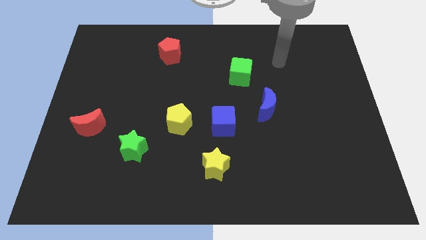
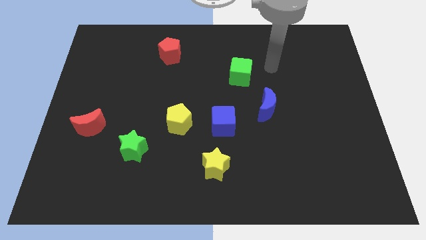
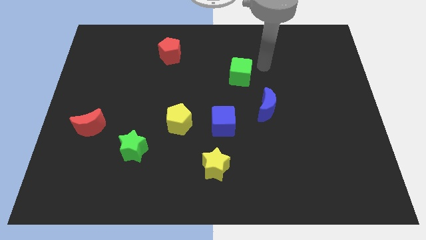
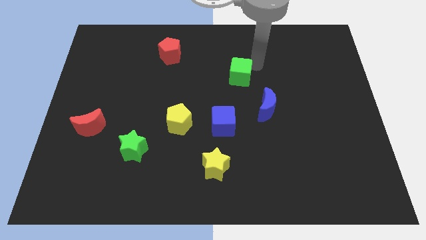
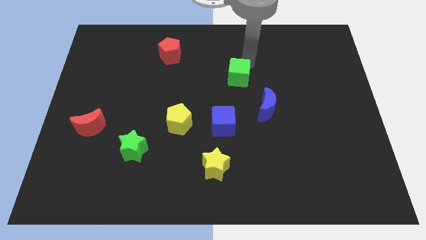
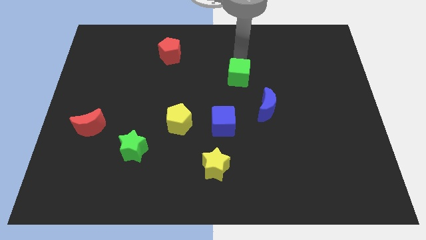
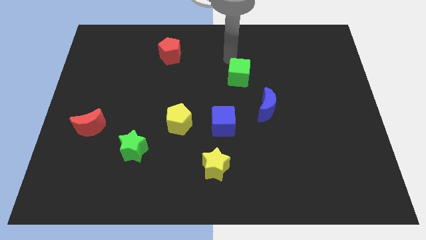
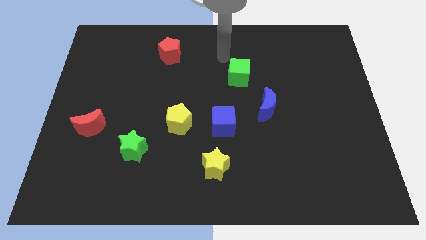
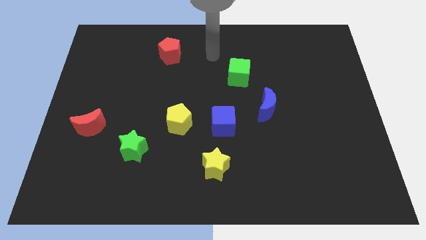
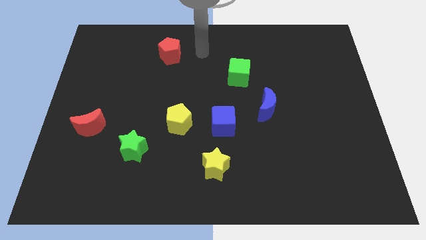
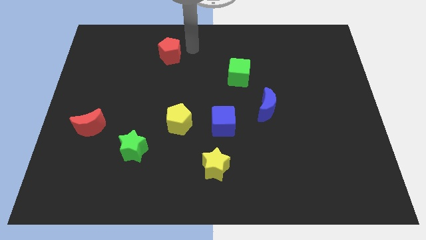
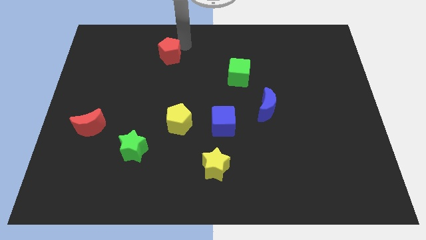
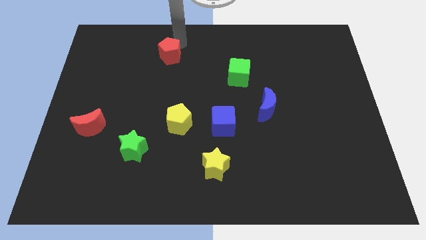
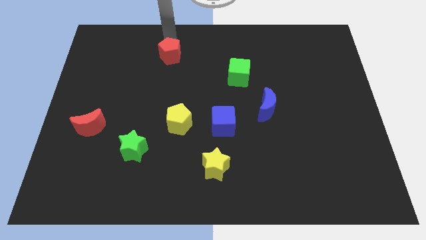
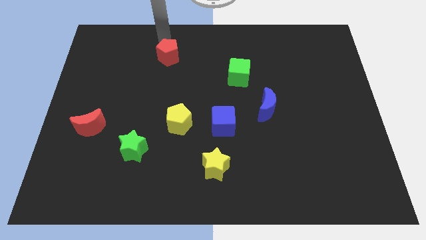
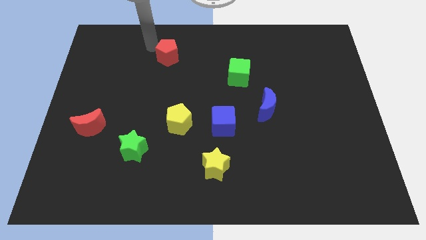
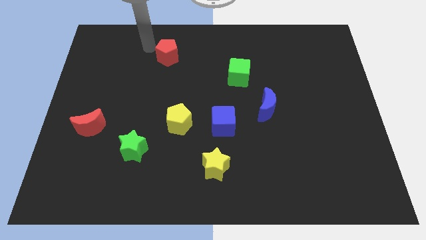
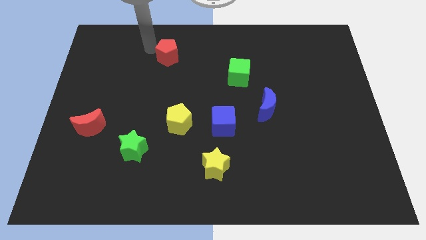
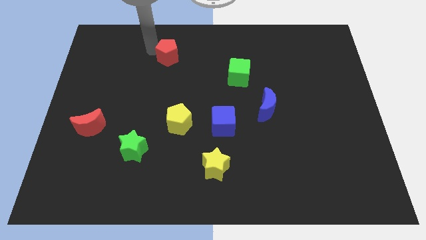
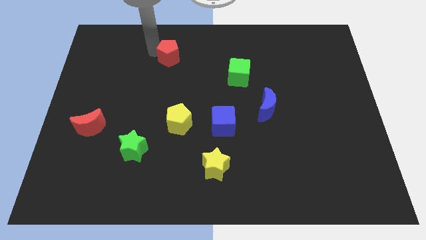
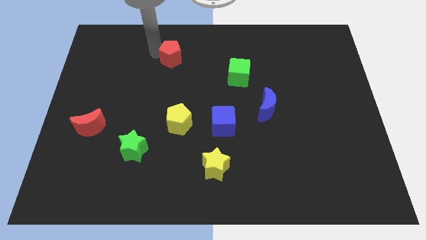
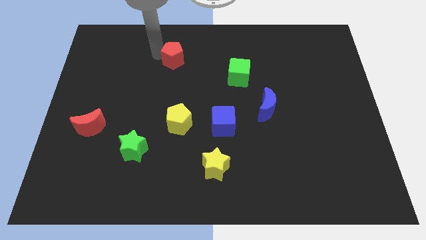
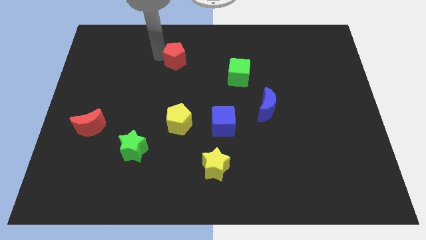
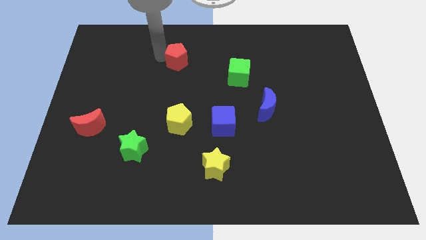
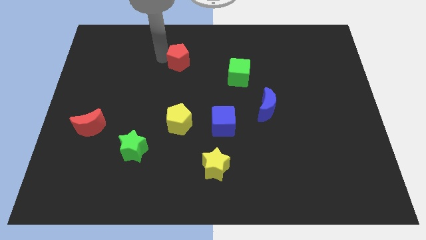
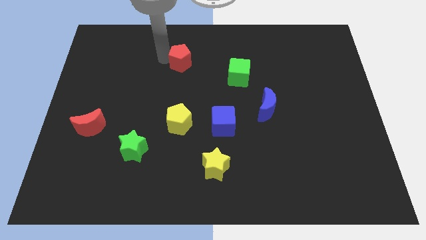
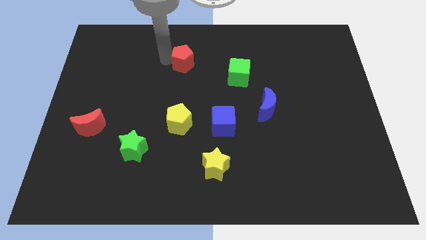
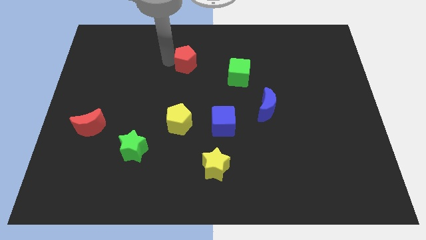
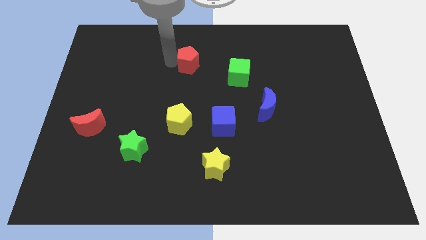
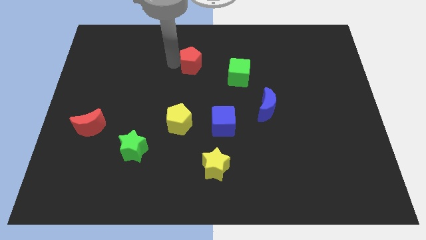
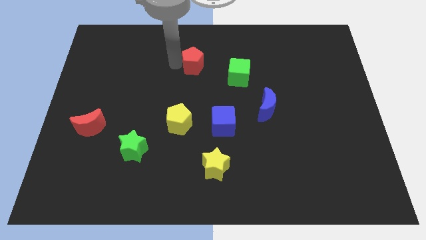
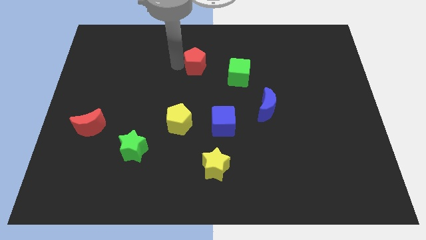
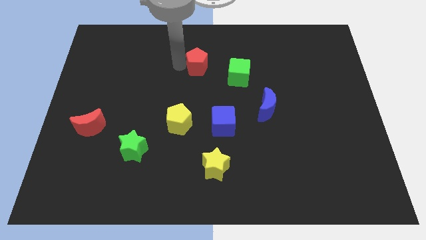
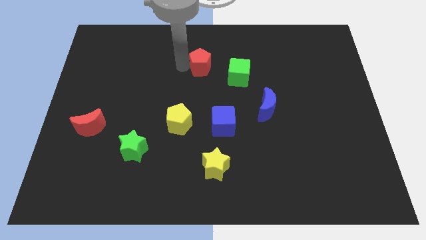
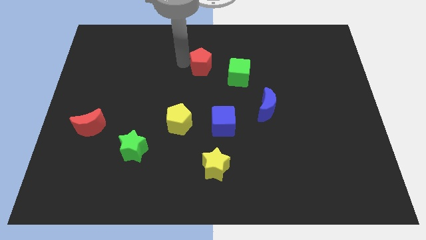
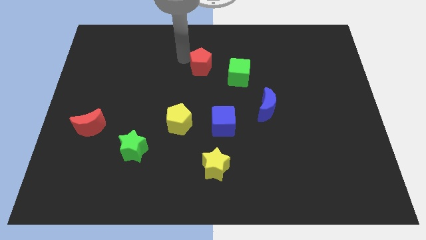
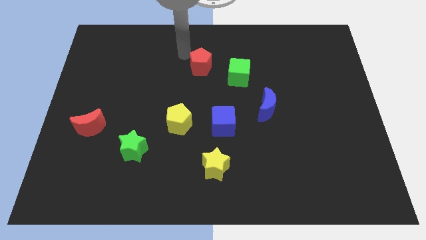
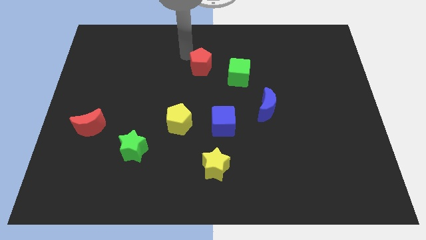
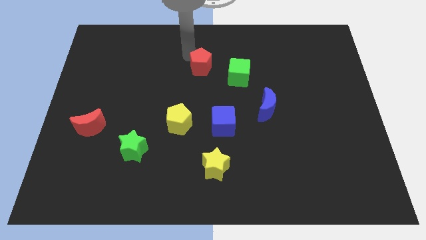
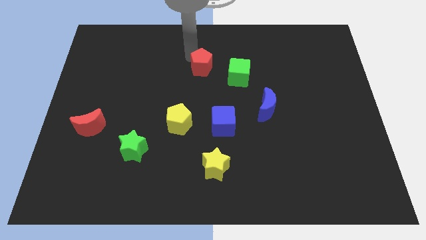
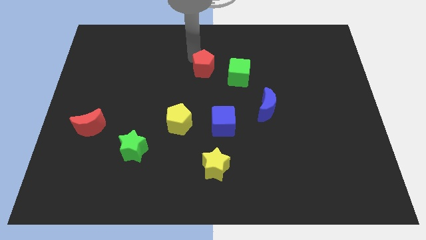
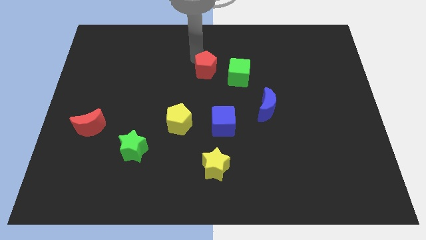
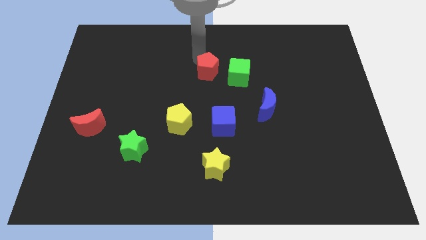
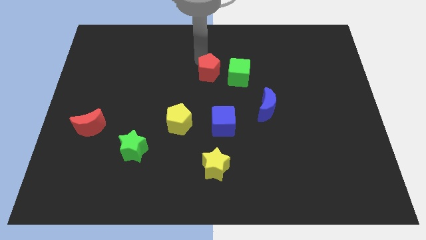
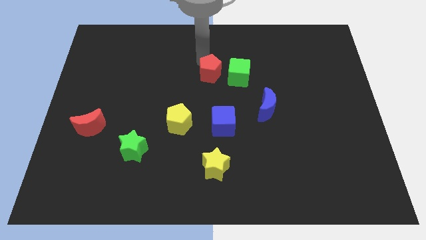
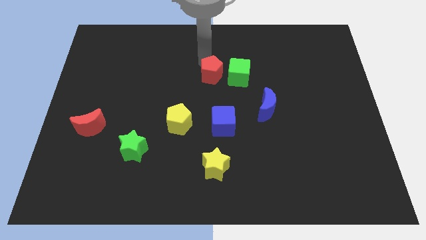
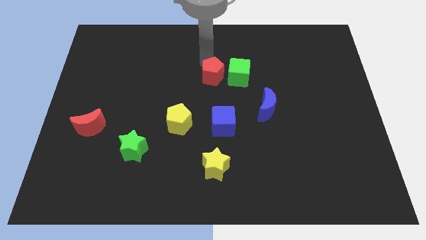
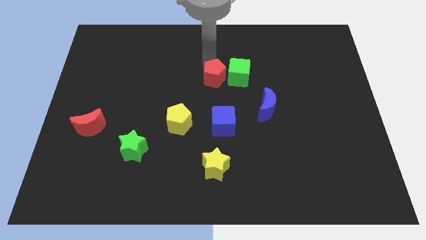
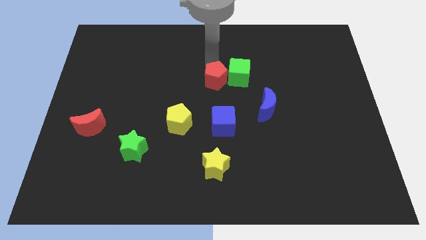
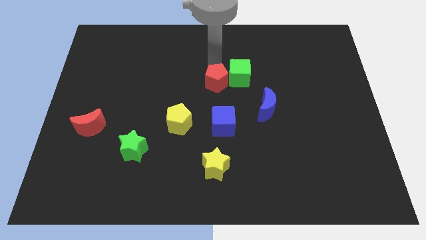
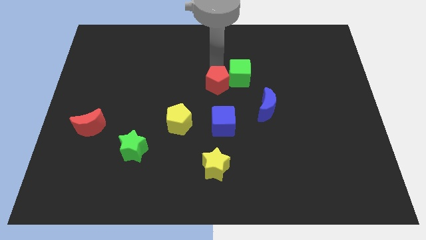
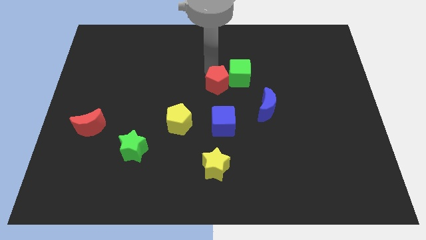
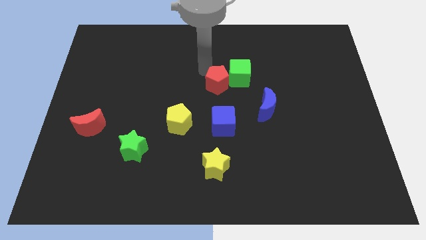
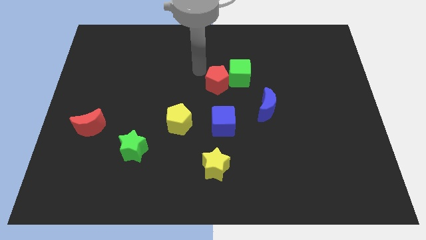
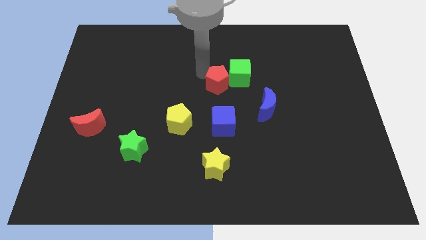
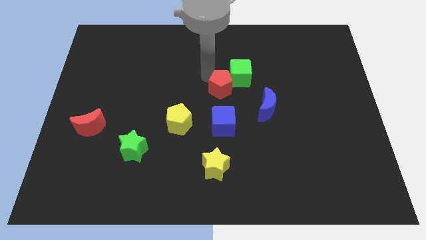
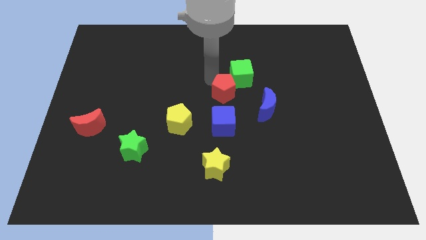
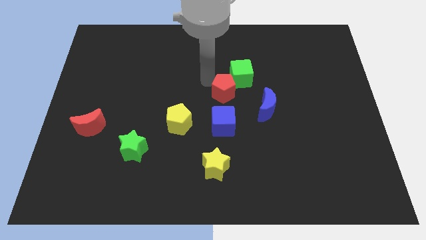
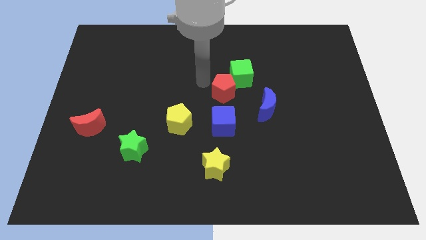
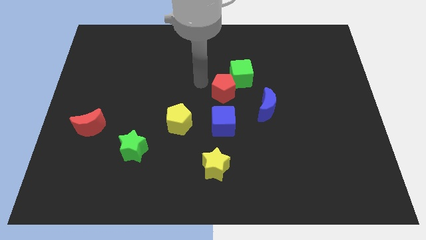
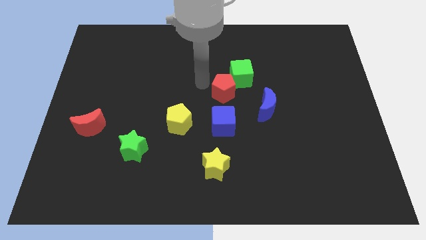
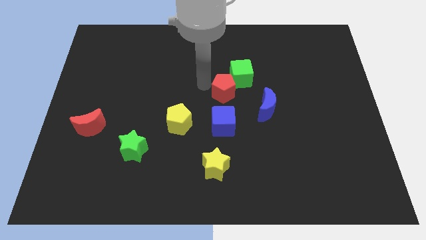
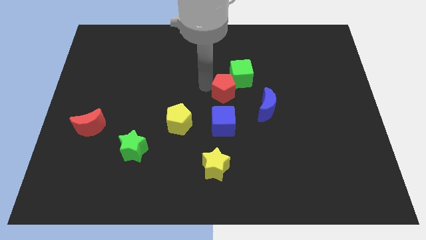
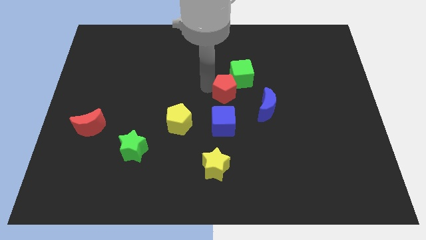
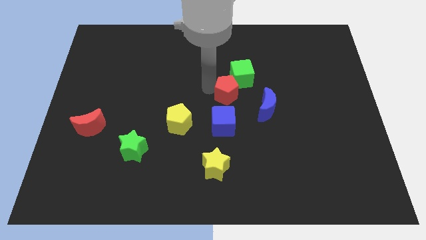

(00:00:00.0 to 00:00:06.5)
move the red pentagon downwards and to the right diagonally

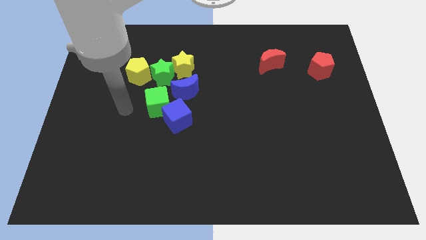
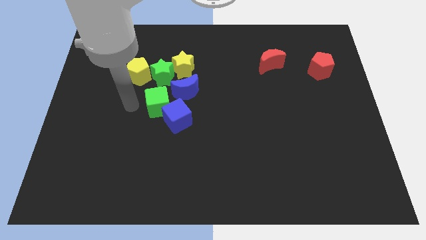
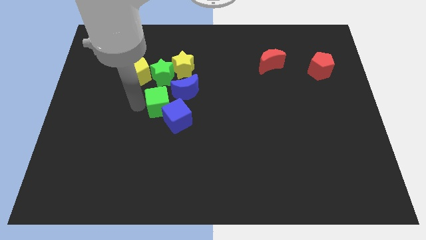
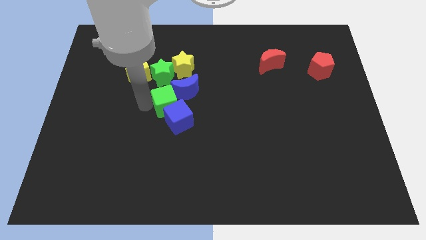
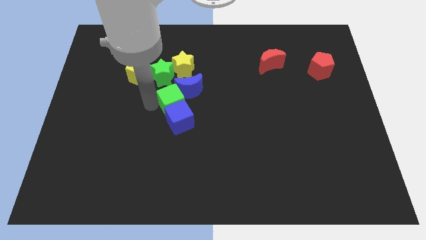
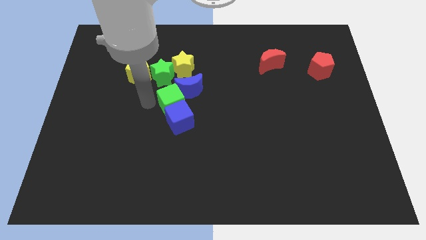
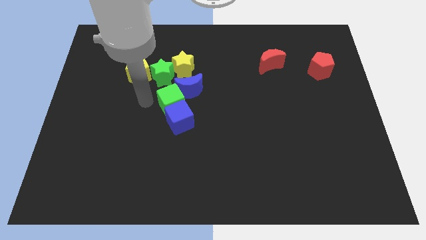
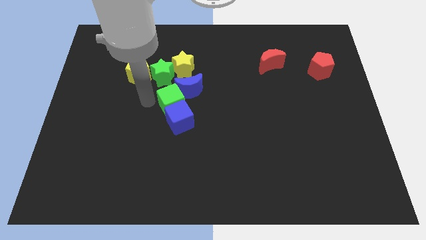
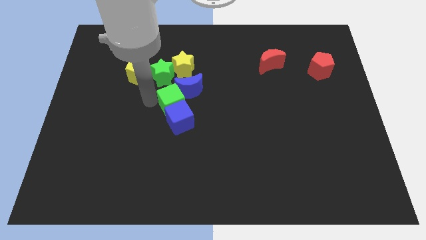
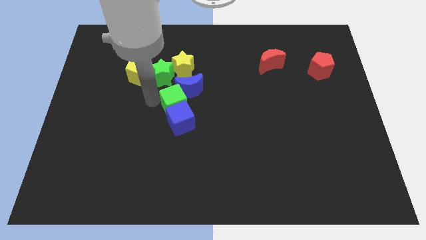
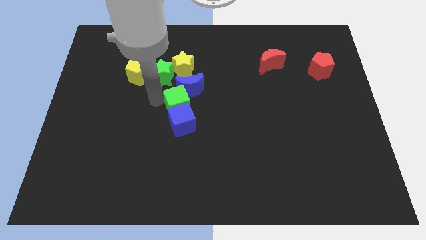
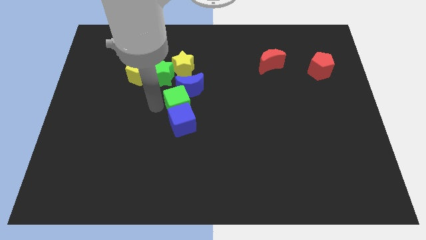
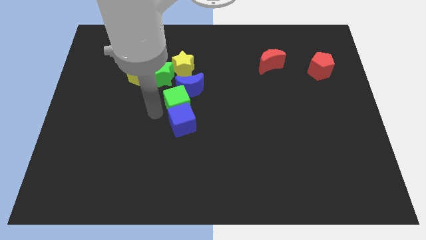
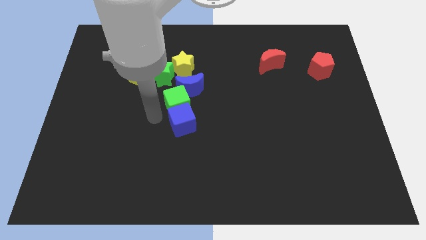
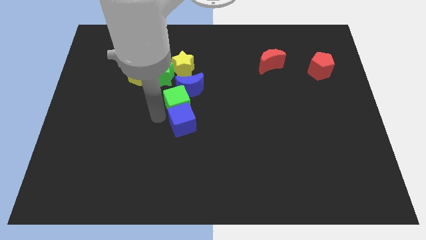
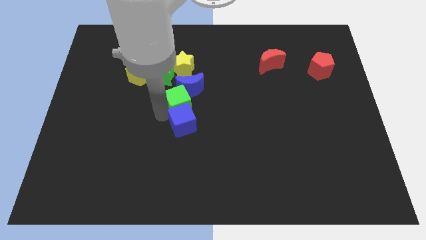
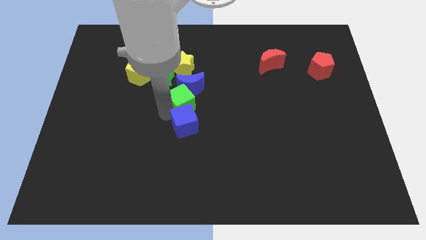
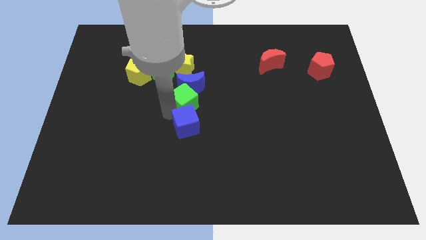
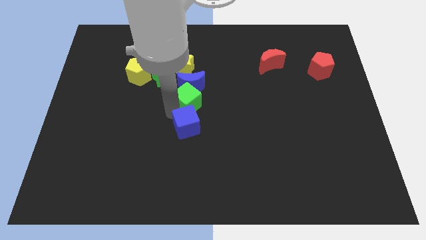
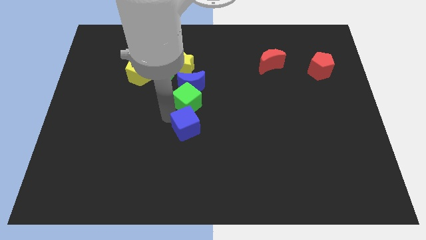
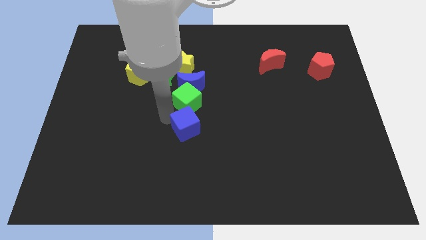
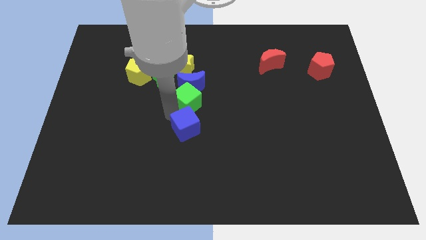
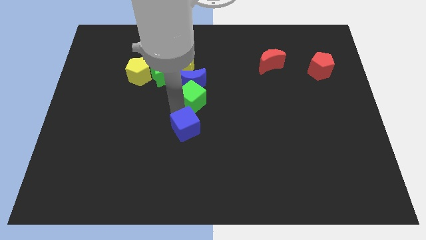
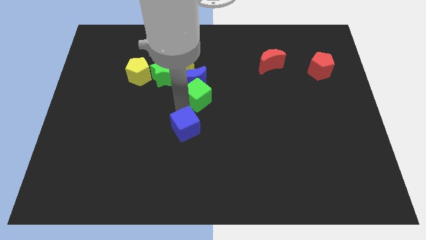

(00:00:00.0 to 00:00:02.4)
move the green cube a little upwards and to the right diagonally
